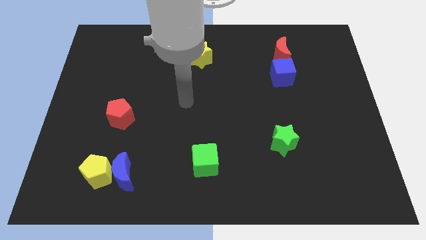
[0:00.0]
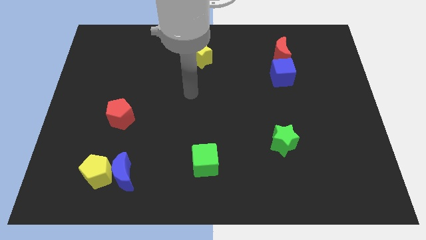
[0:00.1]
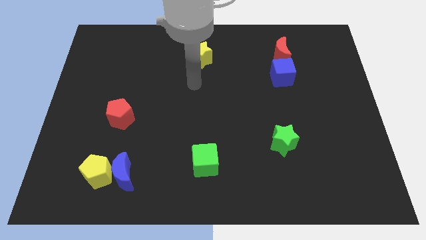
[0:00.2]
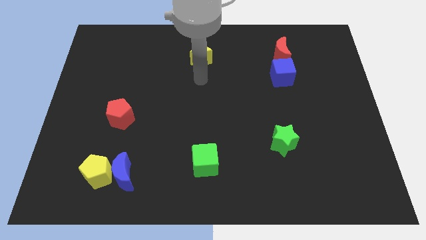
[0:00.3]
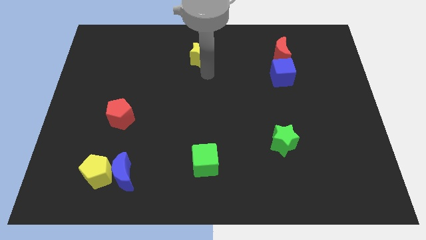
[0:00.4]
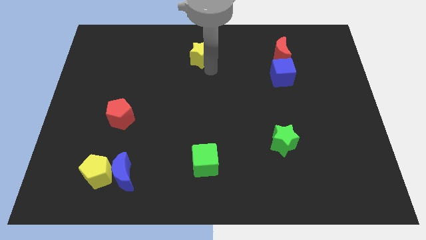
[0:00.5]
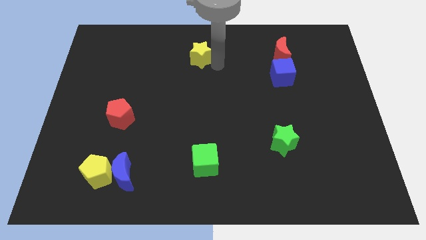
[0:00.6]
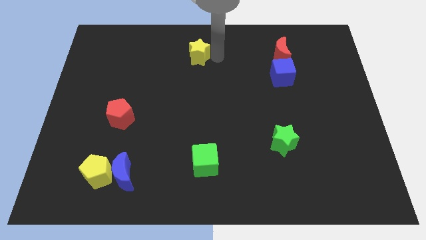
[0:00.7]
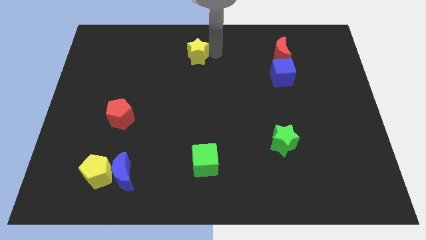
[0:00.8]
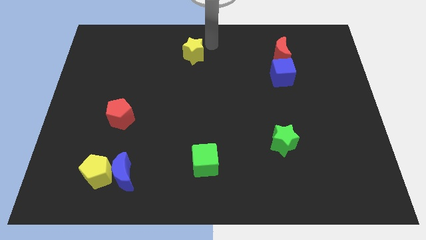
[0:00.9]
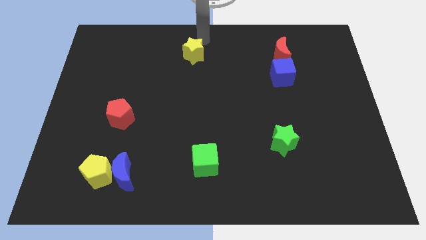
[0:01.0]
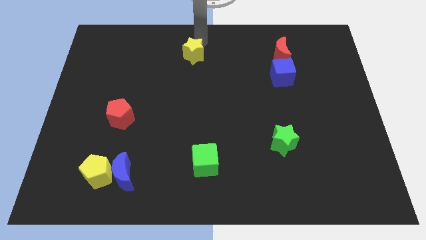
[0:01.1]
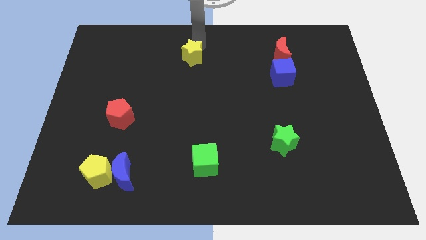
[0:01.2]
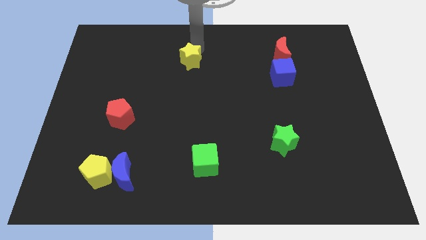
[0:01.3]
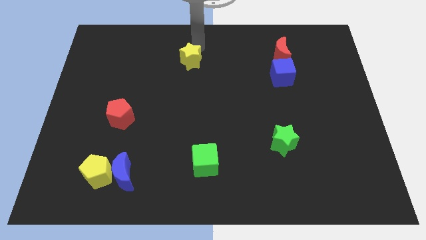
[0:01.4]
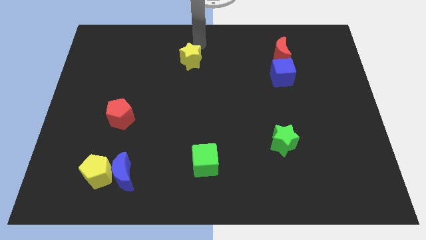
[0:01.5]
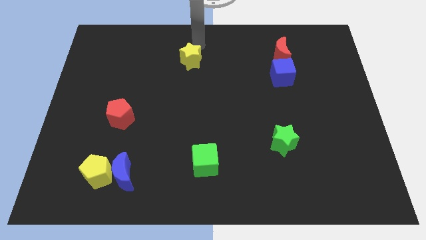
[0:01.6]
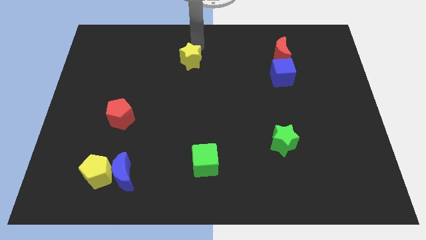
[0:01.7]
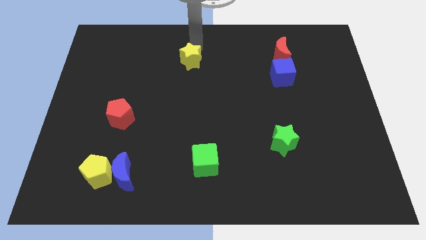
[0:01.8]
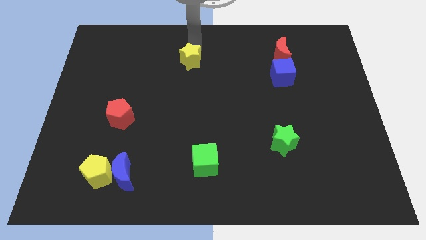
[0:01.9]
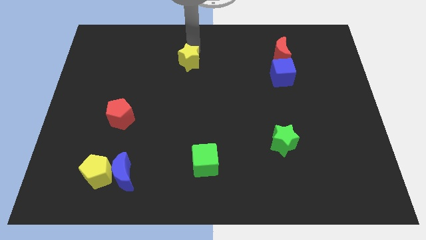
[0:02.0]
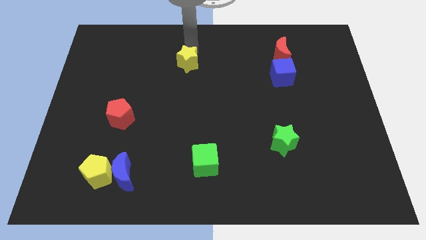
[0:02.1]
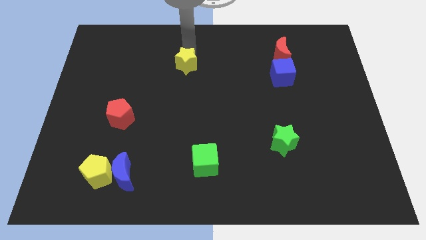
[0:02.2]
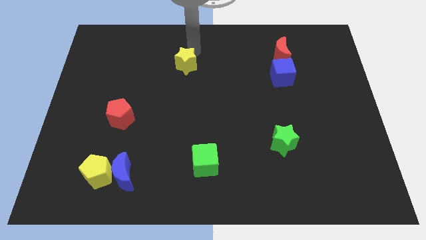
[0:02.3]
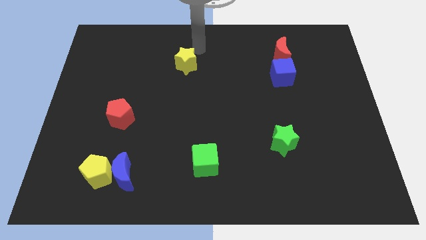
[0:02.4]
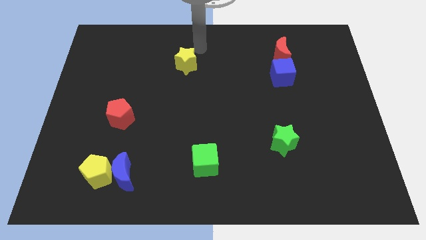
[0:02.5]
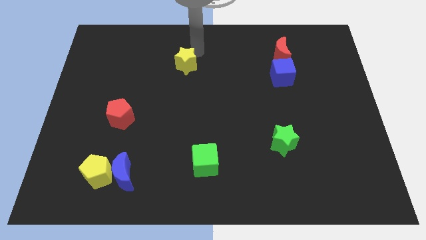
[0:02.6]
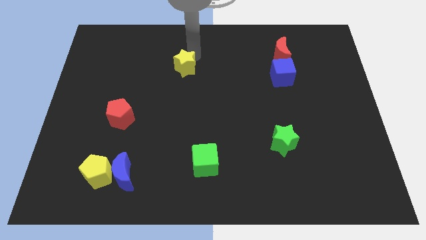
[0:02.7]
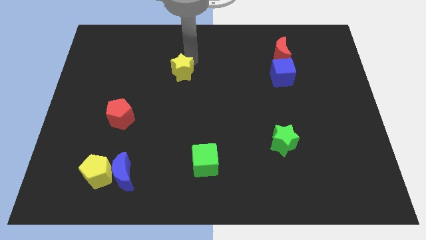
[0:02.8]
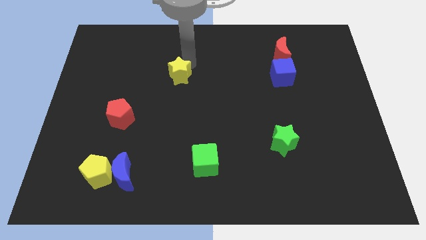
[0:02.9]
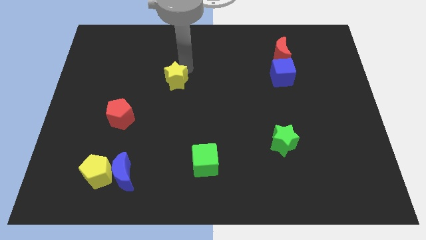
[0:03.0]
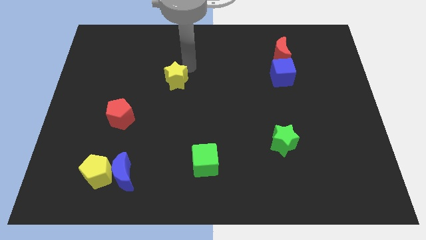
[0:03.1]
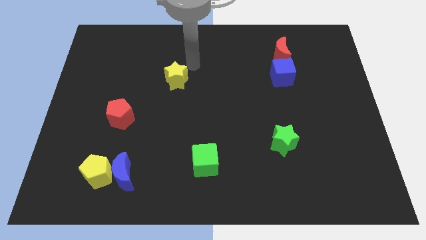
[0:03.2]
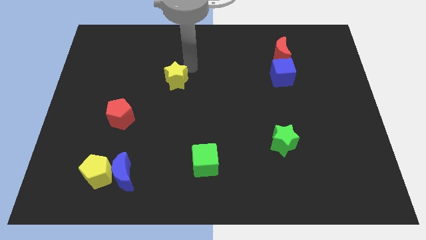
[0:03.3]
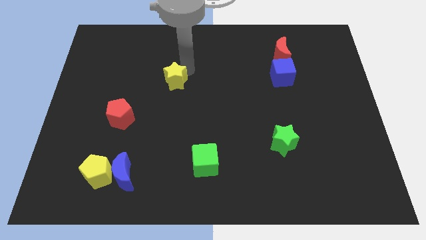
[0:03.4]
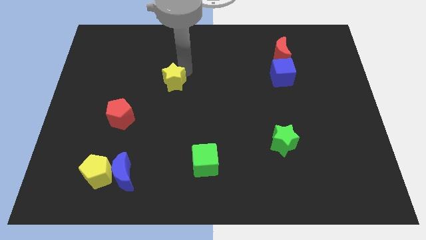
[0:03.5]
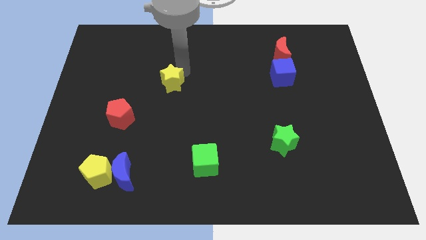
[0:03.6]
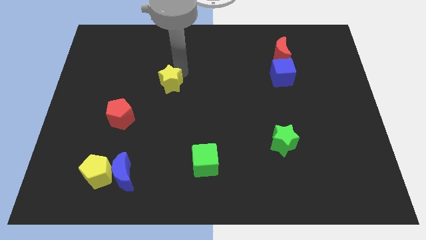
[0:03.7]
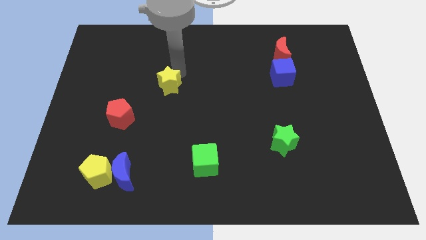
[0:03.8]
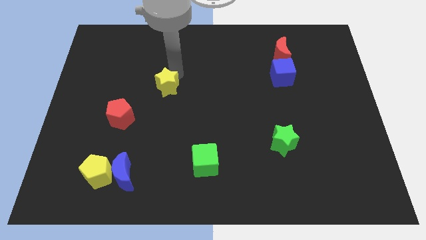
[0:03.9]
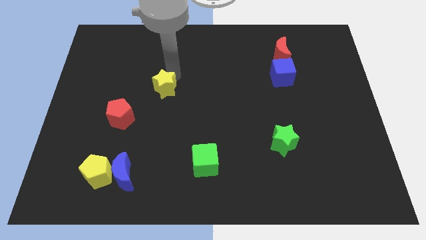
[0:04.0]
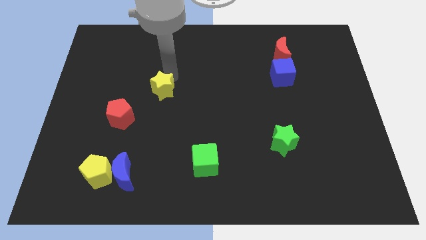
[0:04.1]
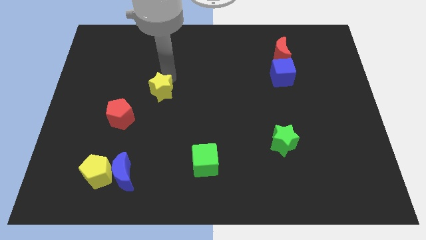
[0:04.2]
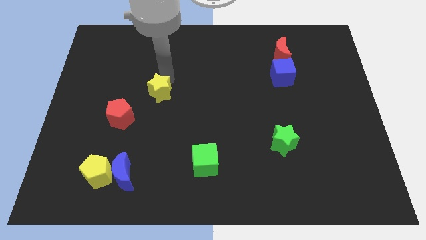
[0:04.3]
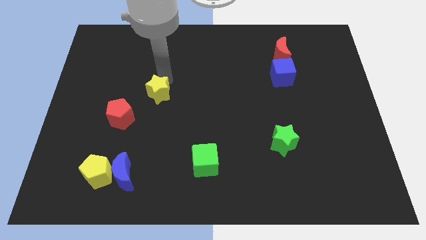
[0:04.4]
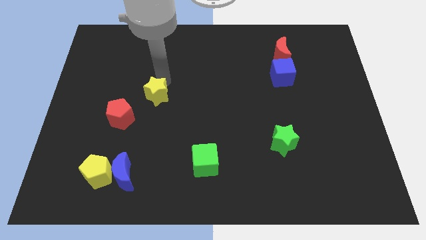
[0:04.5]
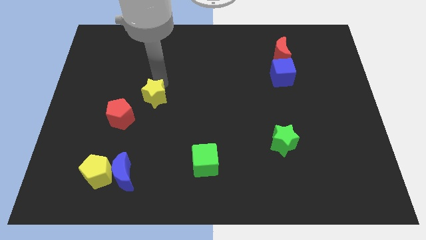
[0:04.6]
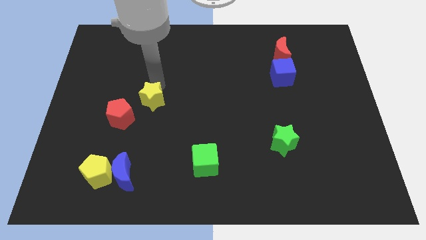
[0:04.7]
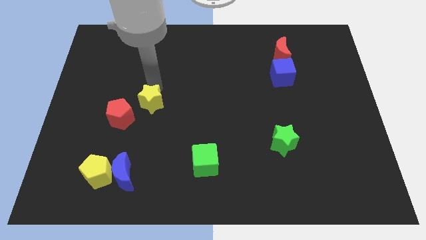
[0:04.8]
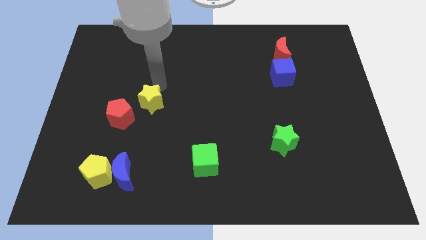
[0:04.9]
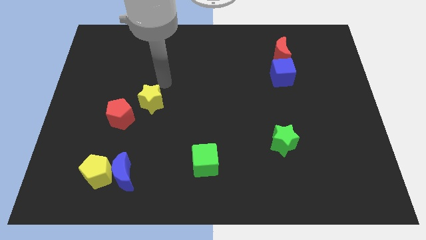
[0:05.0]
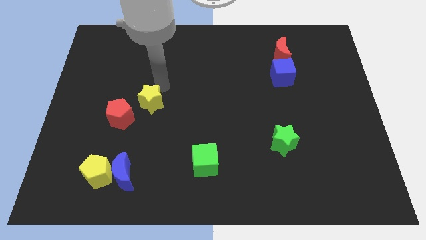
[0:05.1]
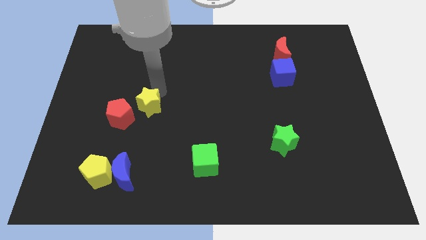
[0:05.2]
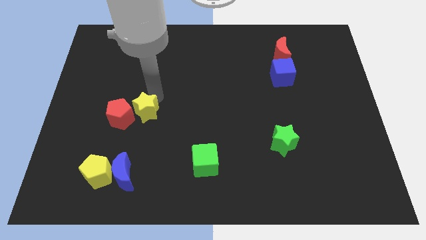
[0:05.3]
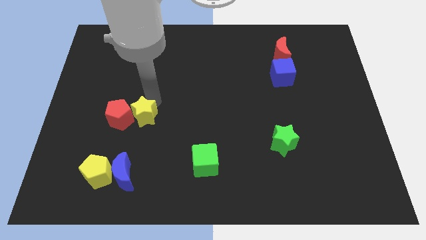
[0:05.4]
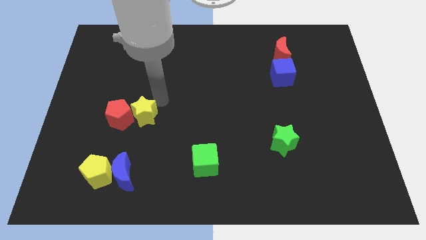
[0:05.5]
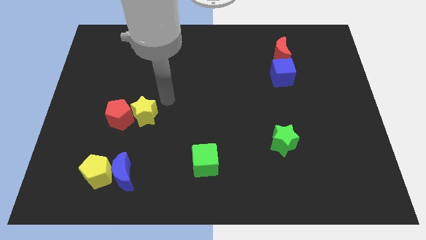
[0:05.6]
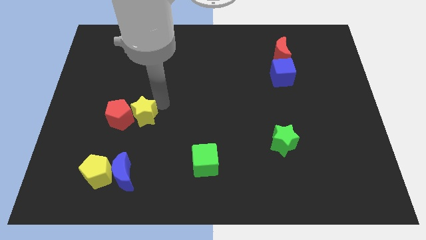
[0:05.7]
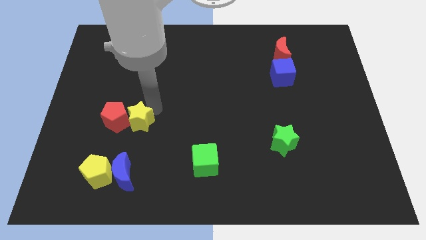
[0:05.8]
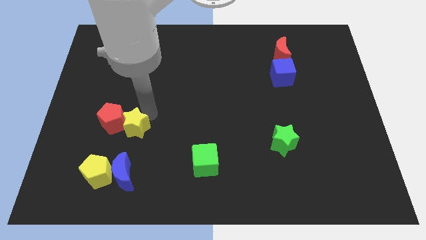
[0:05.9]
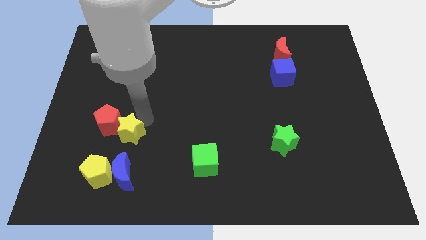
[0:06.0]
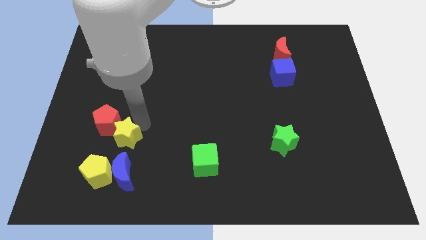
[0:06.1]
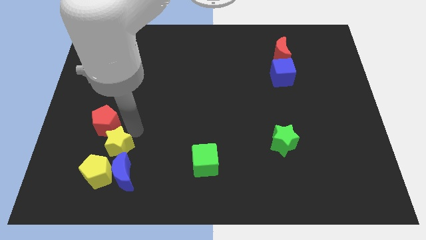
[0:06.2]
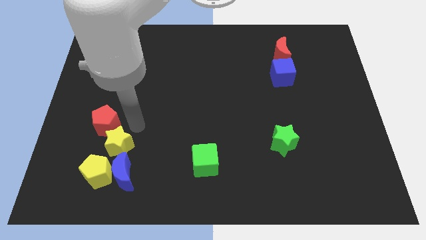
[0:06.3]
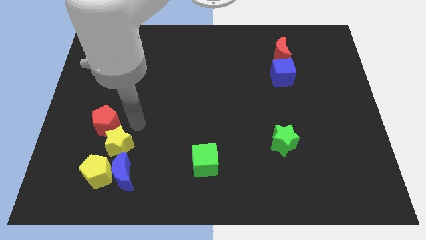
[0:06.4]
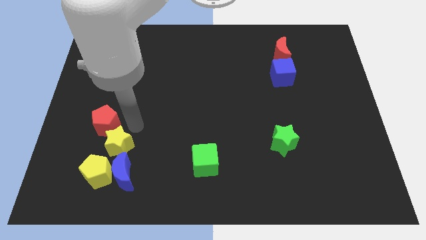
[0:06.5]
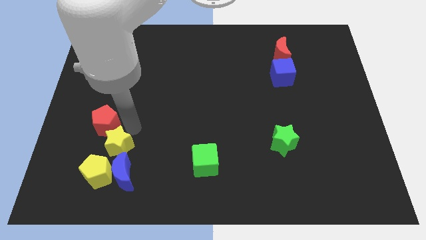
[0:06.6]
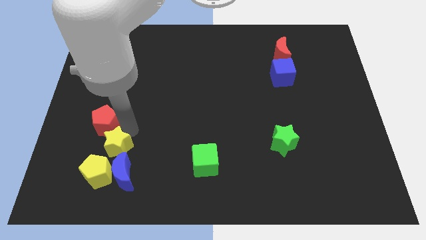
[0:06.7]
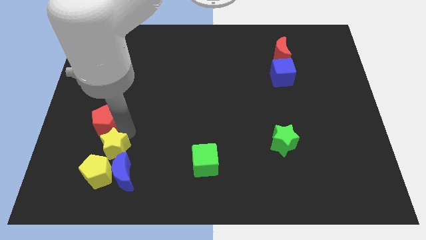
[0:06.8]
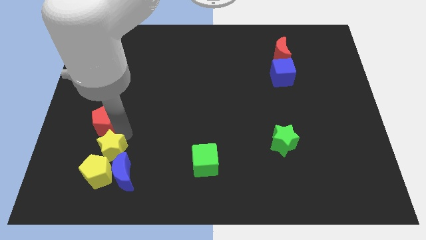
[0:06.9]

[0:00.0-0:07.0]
put the yellow star next to the yellow pentagon
